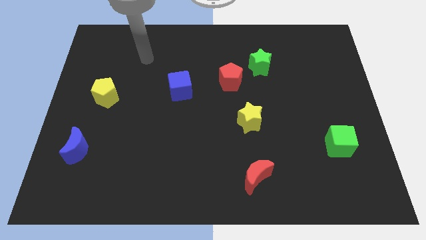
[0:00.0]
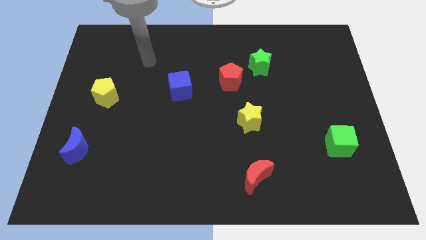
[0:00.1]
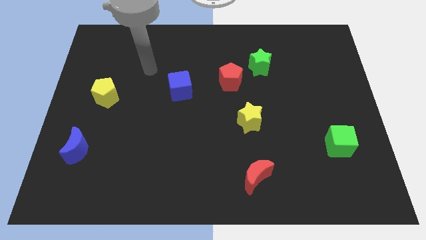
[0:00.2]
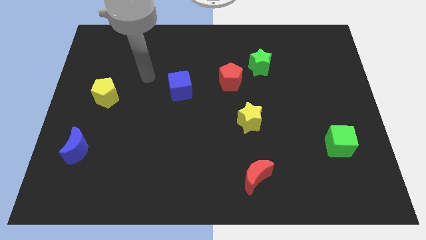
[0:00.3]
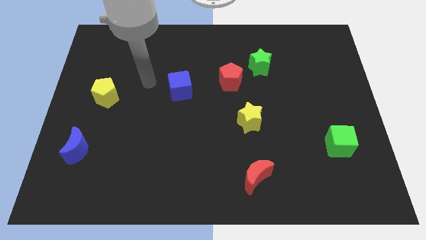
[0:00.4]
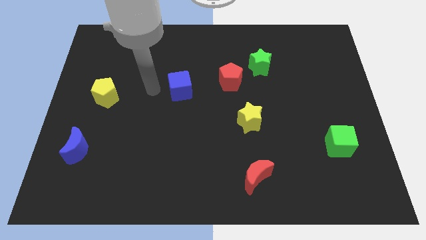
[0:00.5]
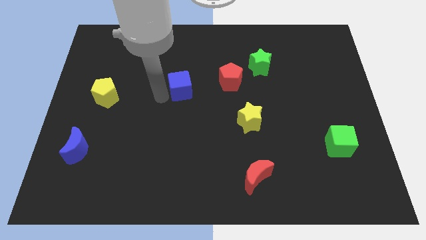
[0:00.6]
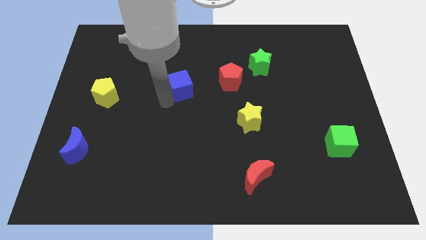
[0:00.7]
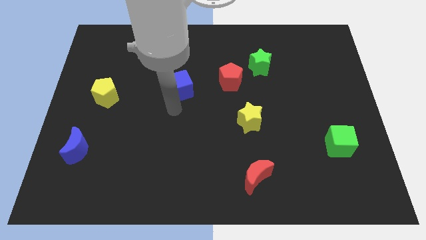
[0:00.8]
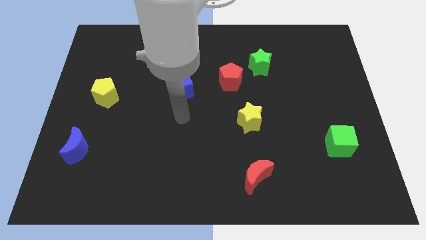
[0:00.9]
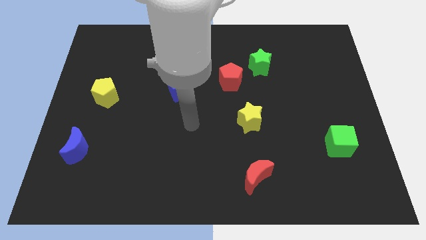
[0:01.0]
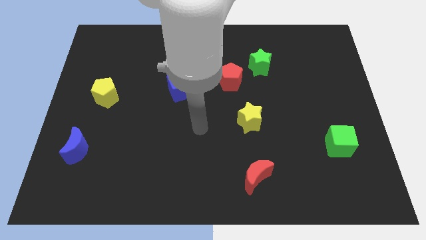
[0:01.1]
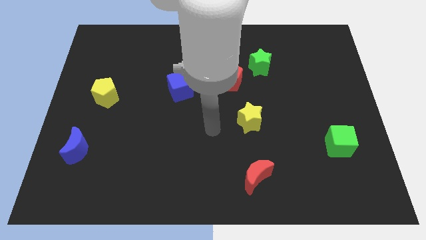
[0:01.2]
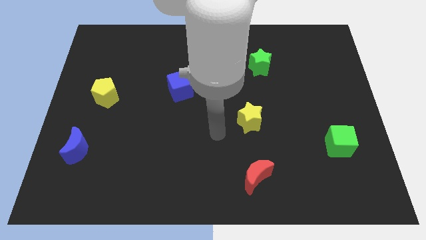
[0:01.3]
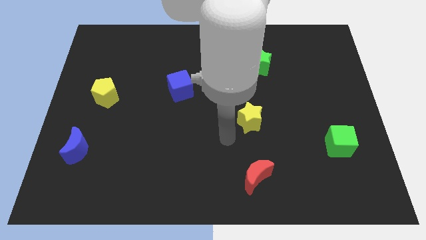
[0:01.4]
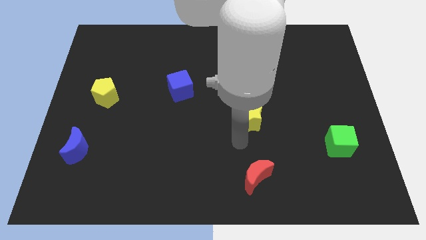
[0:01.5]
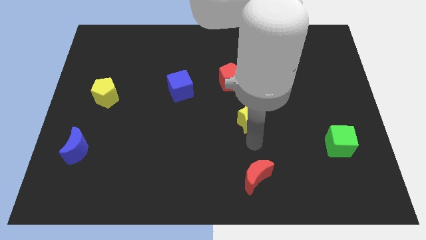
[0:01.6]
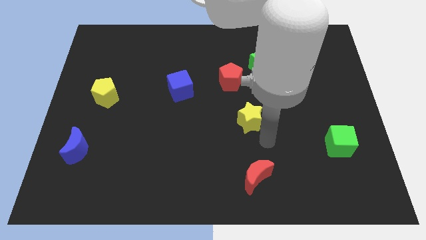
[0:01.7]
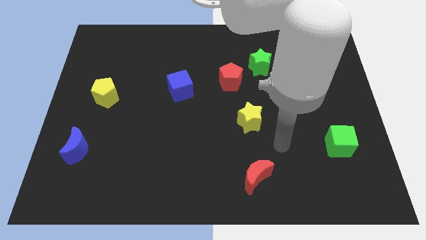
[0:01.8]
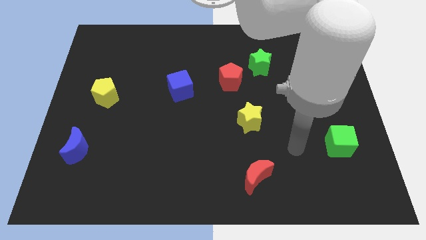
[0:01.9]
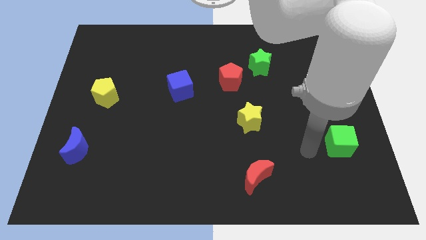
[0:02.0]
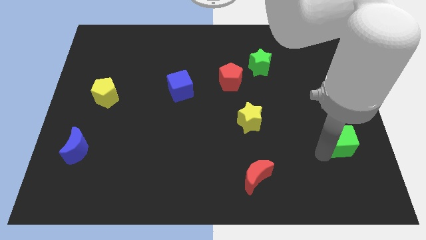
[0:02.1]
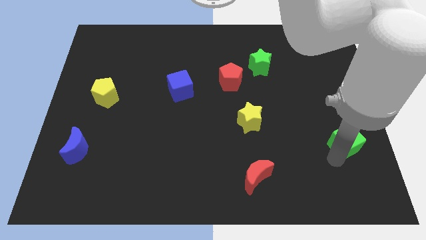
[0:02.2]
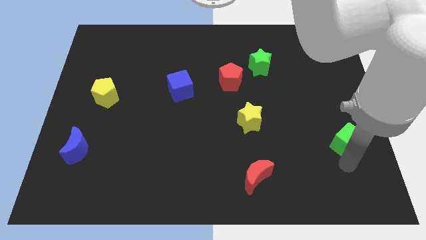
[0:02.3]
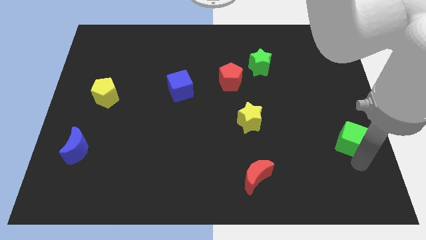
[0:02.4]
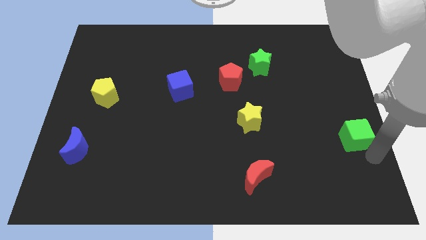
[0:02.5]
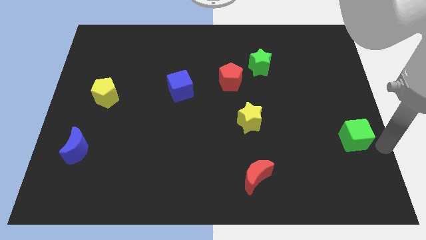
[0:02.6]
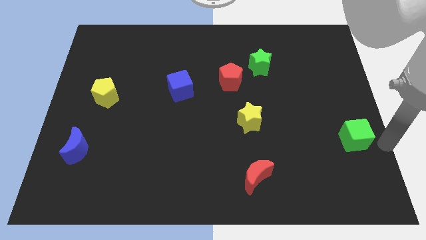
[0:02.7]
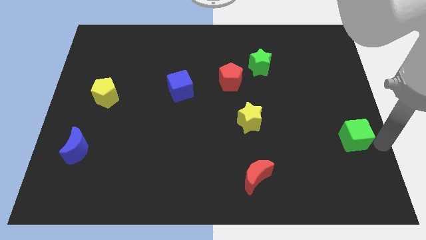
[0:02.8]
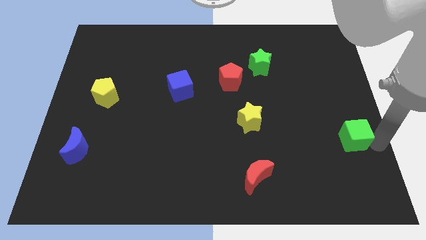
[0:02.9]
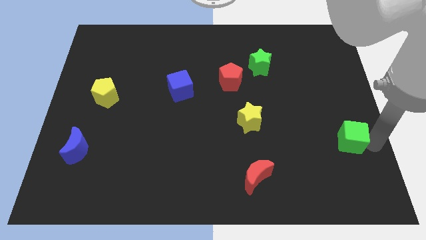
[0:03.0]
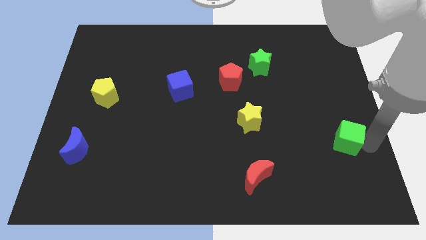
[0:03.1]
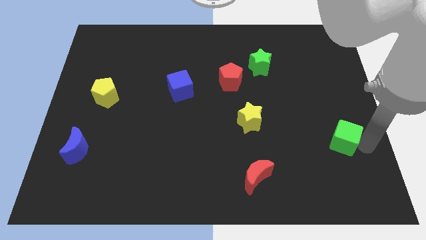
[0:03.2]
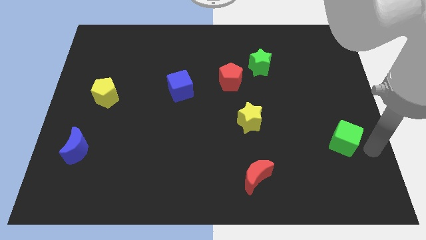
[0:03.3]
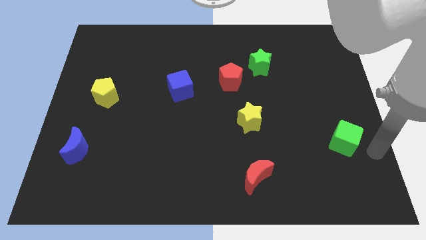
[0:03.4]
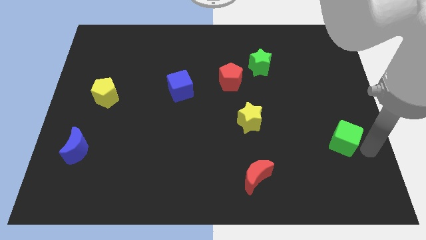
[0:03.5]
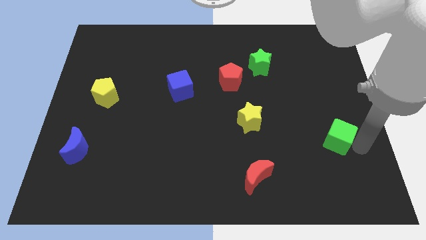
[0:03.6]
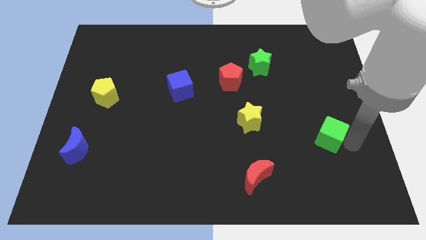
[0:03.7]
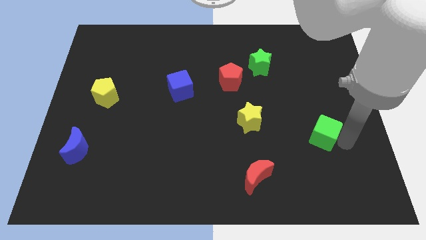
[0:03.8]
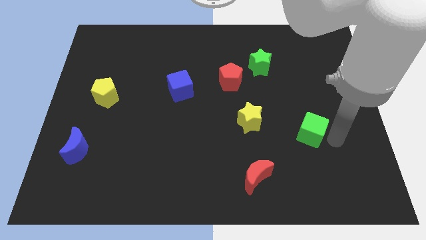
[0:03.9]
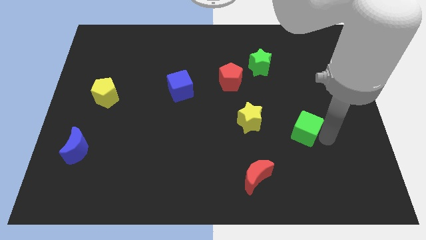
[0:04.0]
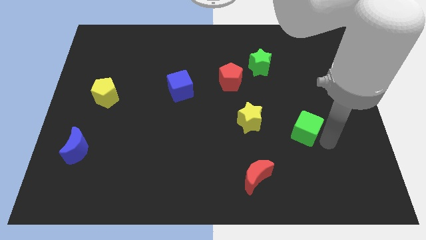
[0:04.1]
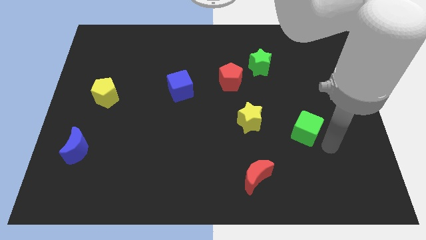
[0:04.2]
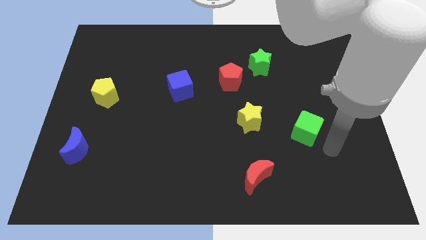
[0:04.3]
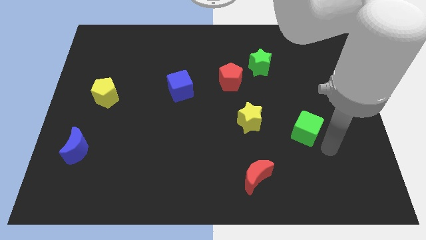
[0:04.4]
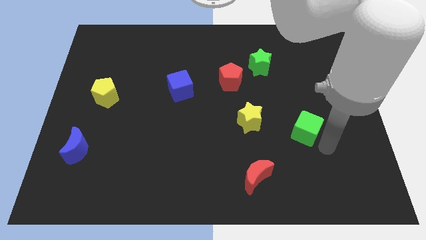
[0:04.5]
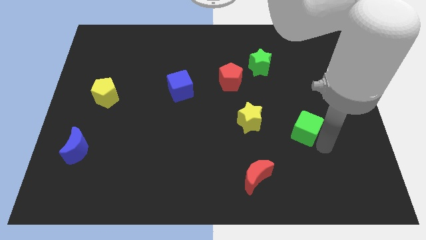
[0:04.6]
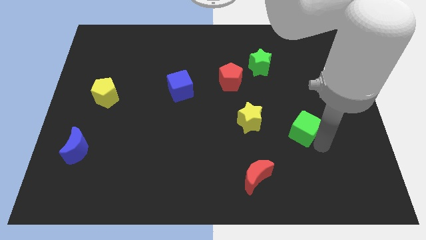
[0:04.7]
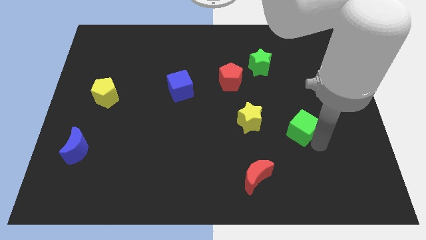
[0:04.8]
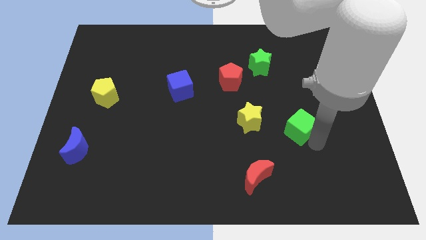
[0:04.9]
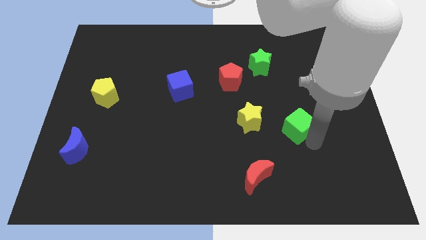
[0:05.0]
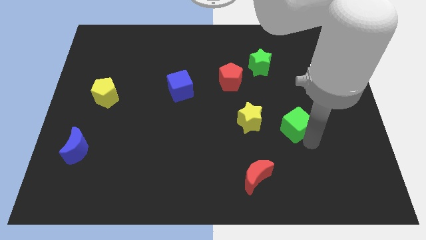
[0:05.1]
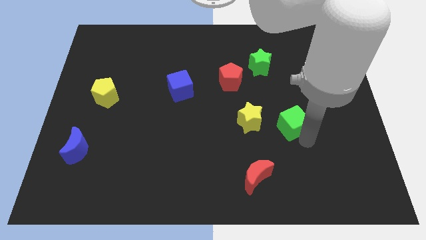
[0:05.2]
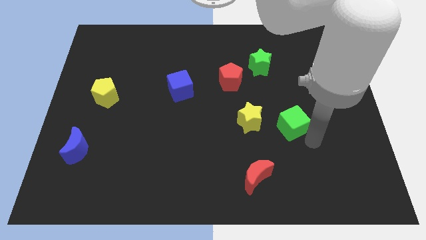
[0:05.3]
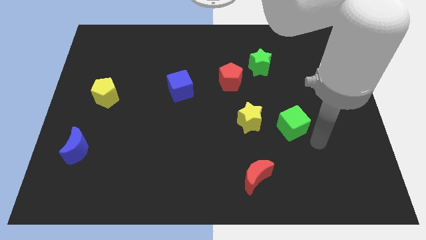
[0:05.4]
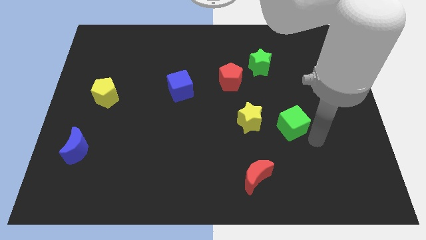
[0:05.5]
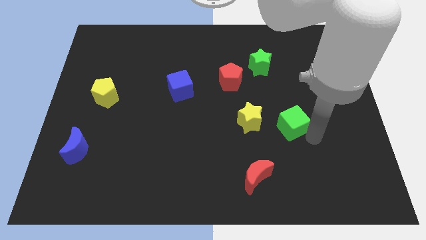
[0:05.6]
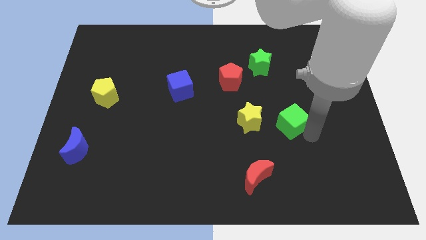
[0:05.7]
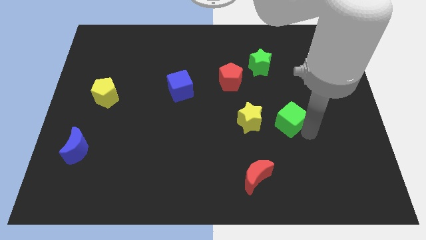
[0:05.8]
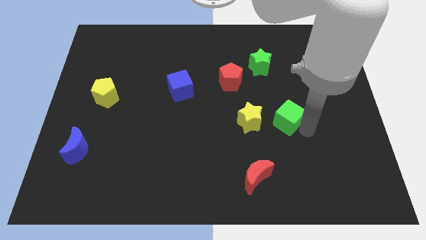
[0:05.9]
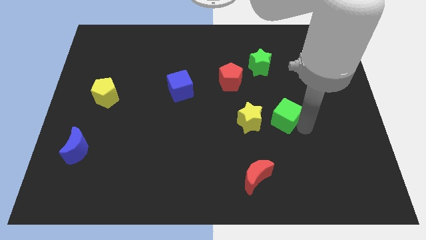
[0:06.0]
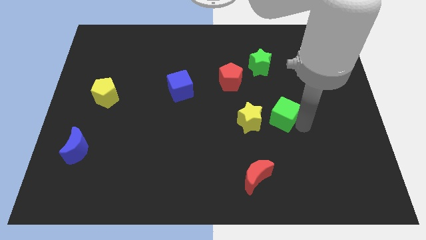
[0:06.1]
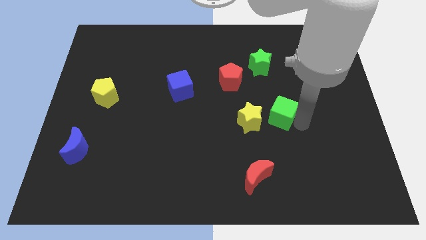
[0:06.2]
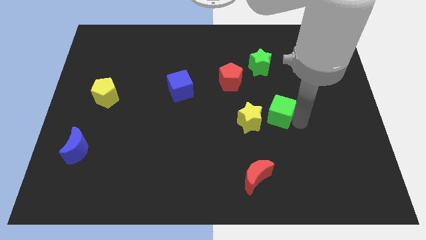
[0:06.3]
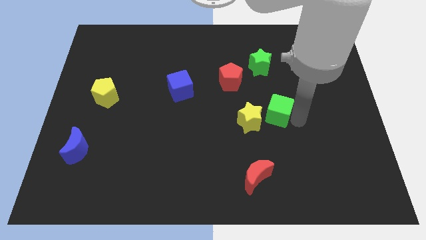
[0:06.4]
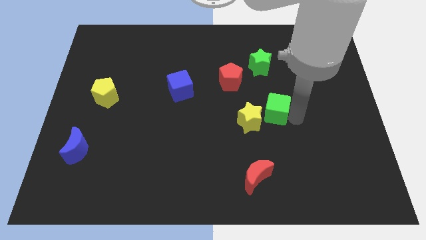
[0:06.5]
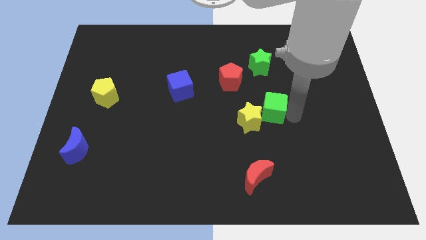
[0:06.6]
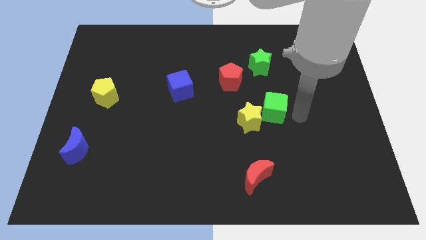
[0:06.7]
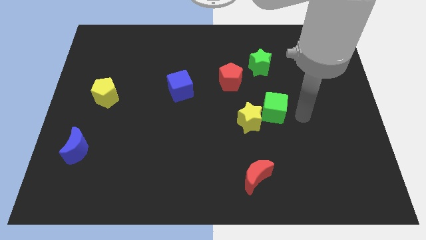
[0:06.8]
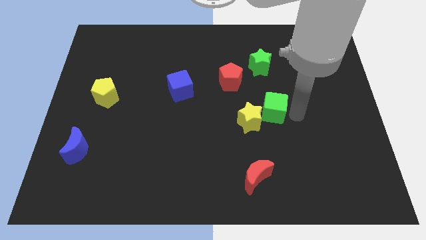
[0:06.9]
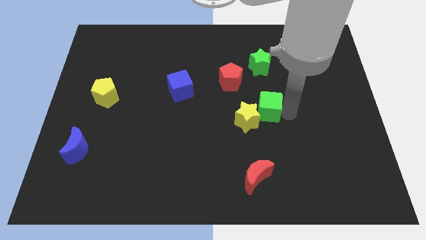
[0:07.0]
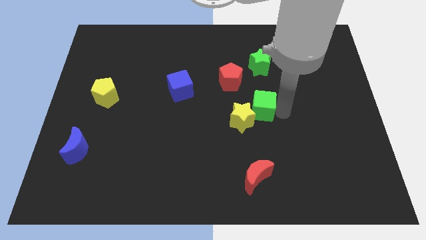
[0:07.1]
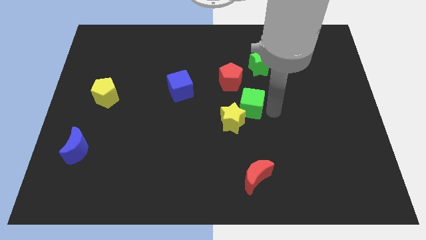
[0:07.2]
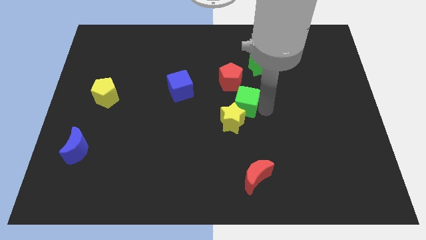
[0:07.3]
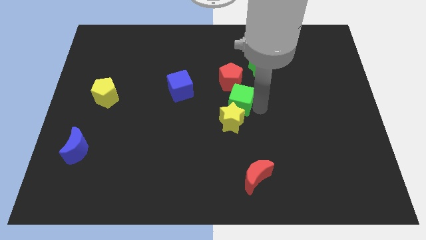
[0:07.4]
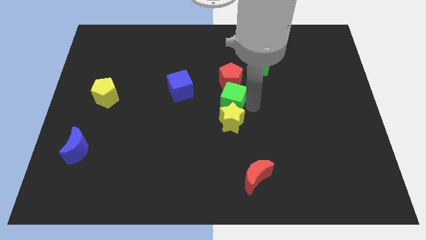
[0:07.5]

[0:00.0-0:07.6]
slide the green cube to the bottom left side of the red pentagon

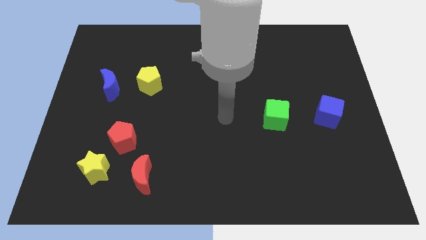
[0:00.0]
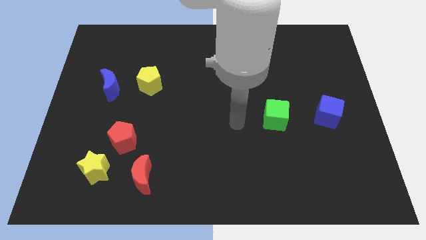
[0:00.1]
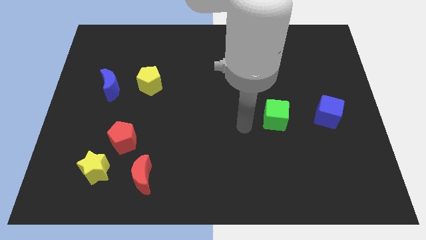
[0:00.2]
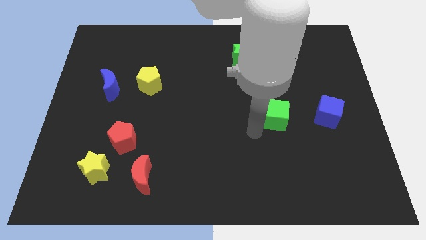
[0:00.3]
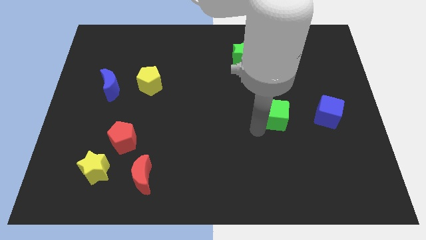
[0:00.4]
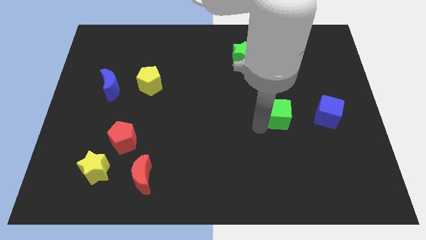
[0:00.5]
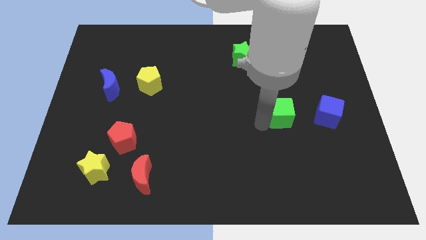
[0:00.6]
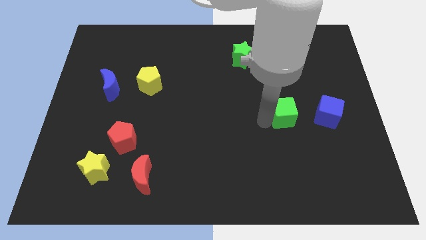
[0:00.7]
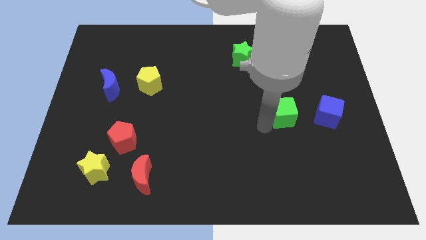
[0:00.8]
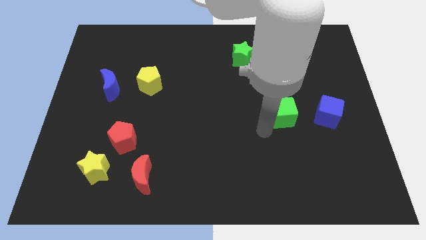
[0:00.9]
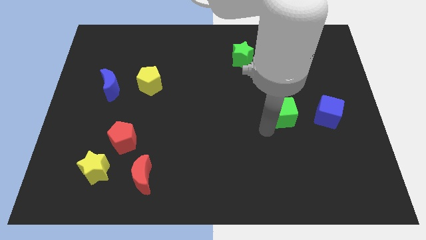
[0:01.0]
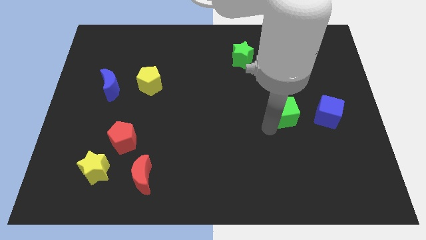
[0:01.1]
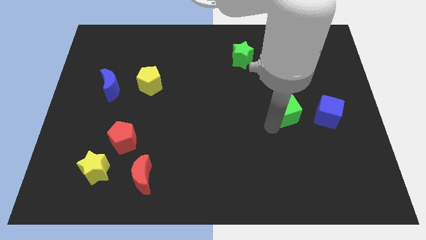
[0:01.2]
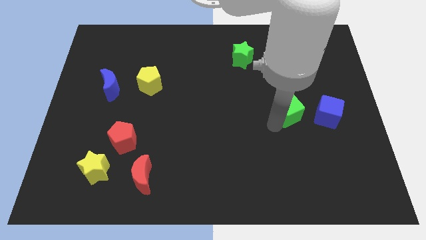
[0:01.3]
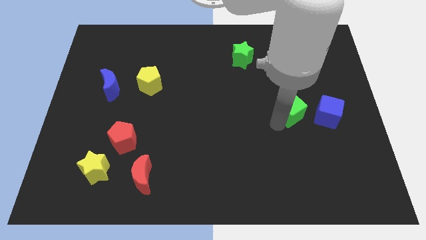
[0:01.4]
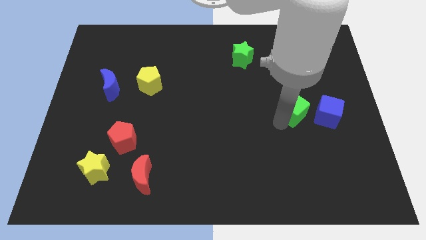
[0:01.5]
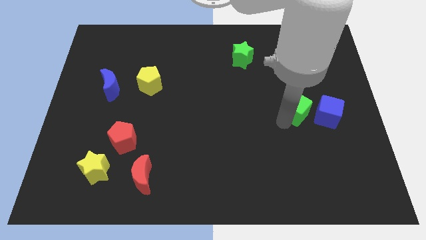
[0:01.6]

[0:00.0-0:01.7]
push the green cube to the top left of the blue cube
